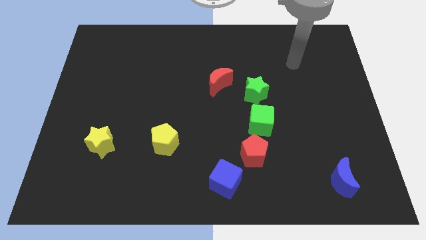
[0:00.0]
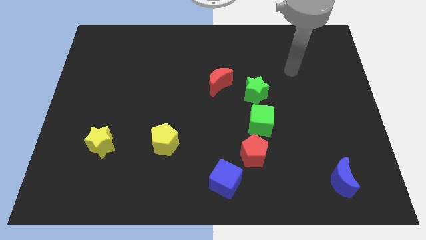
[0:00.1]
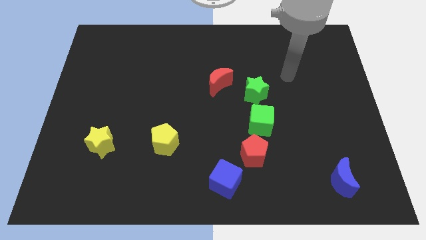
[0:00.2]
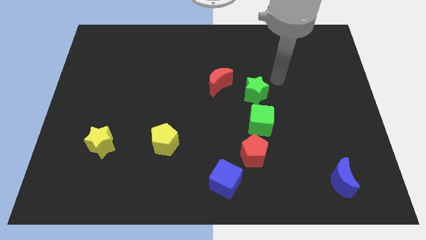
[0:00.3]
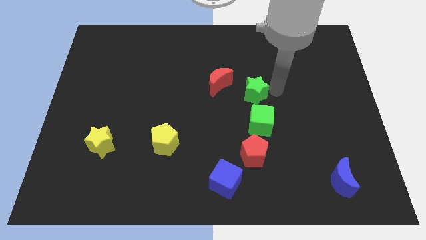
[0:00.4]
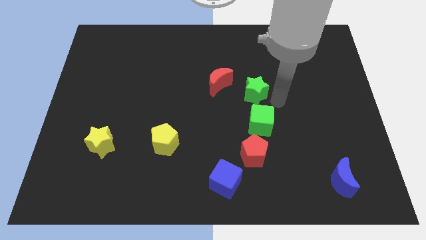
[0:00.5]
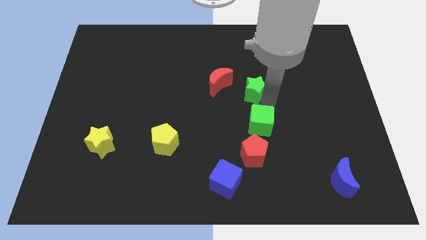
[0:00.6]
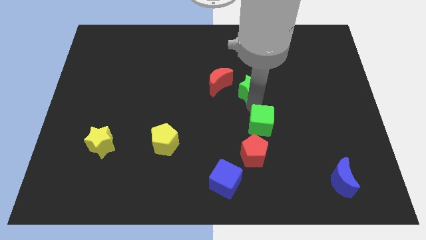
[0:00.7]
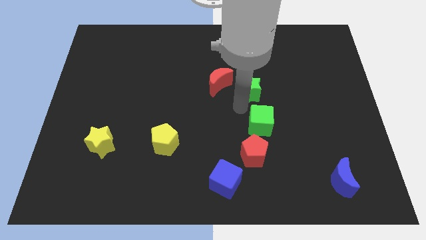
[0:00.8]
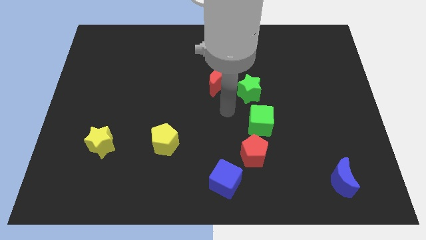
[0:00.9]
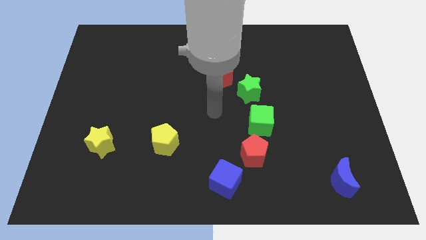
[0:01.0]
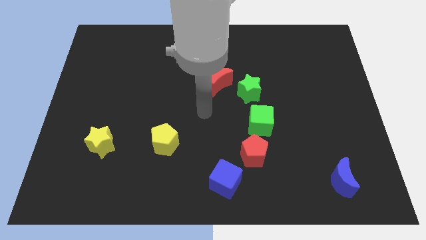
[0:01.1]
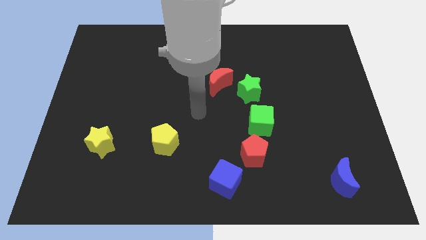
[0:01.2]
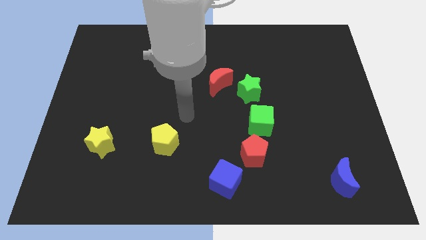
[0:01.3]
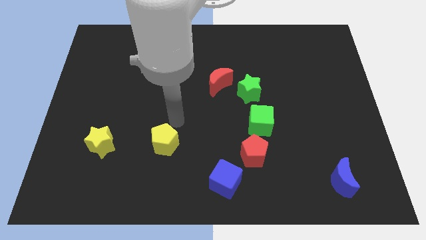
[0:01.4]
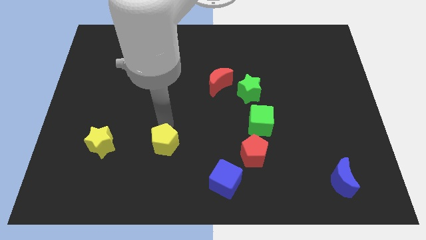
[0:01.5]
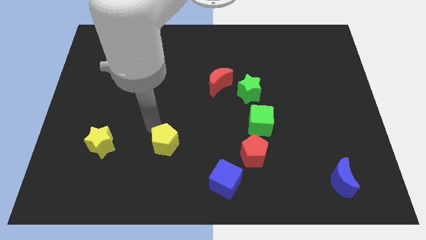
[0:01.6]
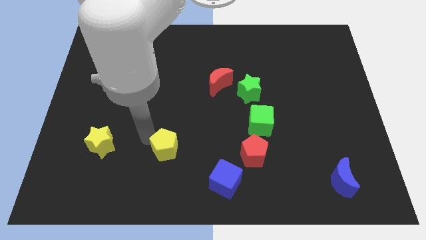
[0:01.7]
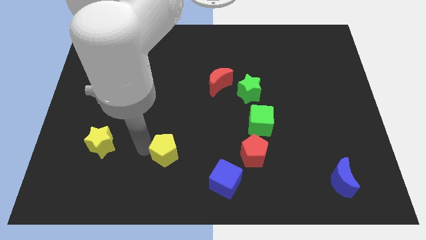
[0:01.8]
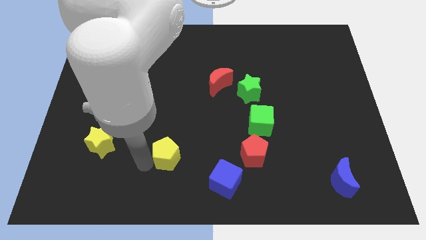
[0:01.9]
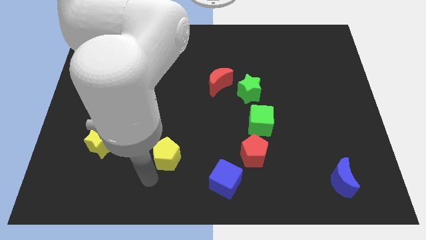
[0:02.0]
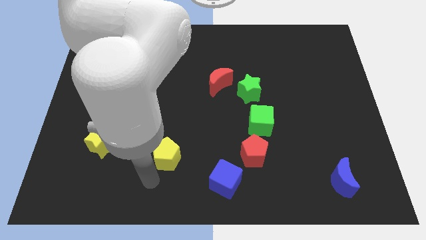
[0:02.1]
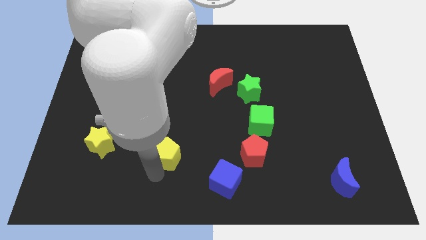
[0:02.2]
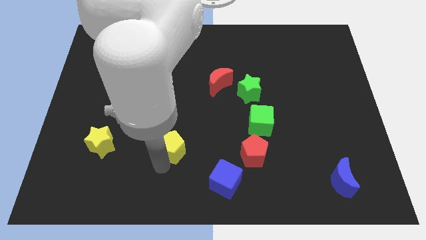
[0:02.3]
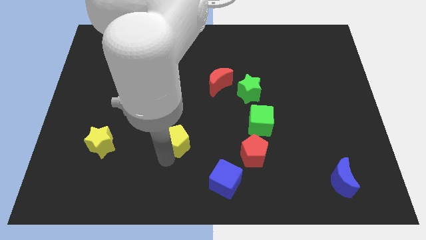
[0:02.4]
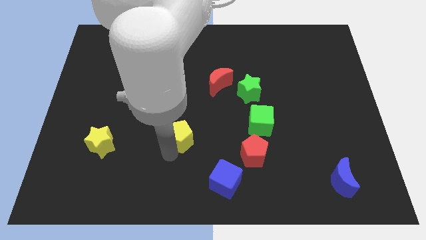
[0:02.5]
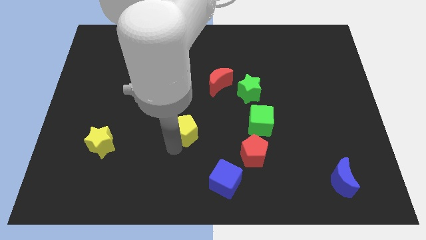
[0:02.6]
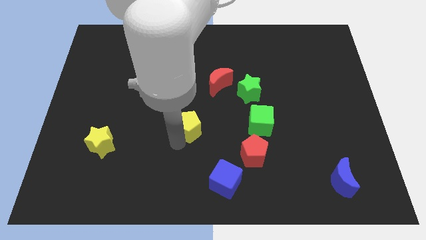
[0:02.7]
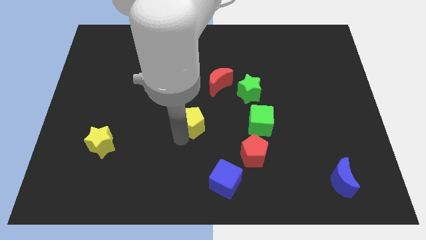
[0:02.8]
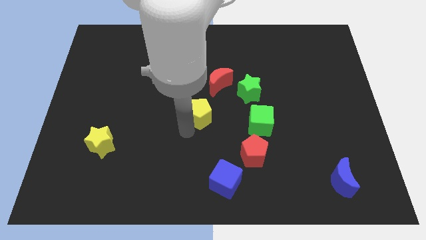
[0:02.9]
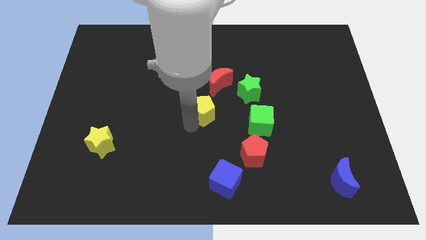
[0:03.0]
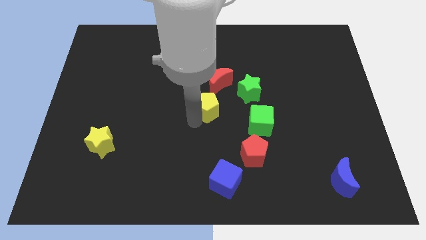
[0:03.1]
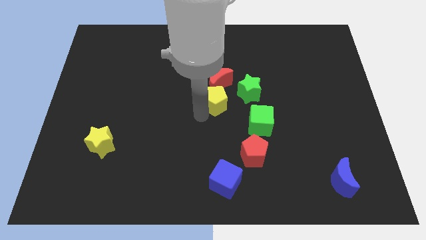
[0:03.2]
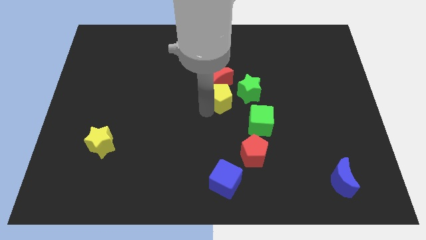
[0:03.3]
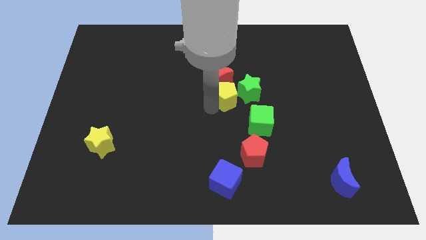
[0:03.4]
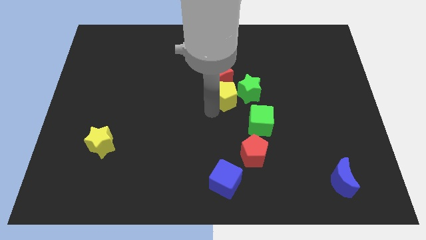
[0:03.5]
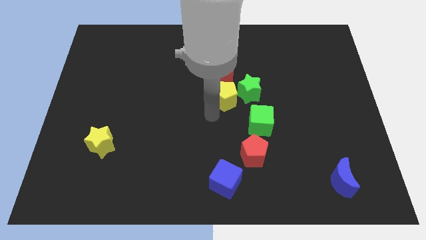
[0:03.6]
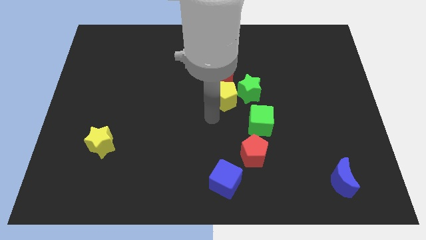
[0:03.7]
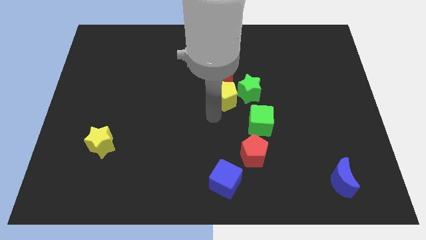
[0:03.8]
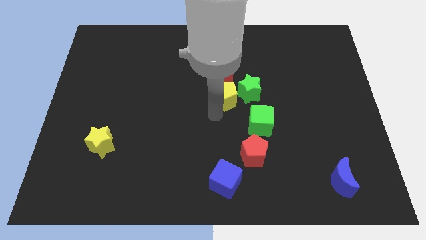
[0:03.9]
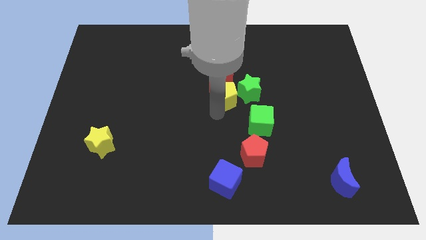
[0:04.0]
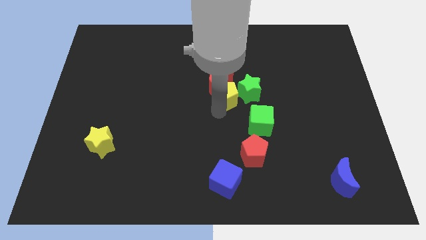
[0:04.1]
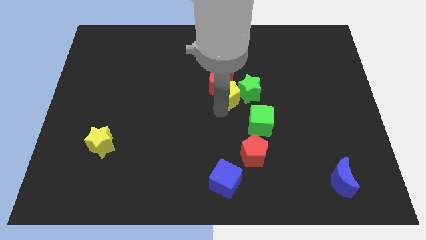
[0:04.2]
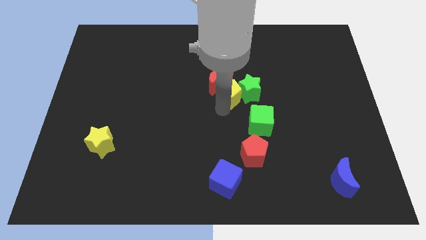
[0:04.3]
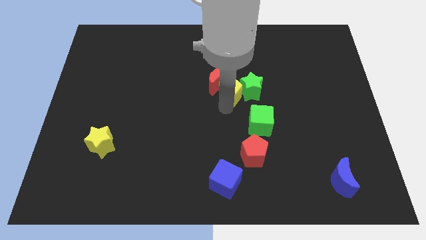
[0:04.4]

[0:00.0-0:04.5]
slide the yellow pentagon upwards and to the right

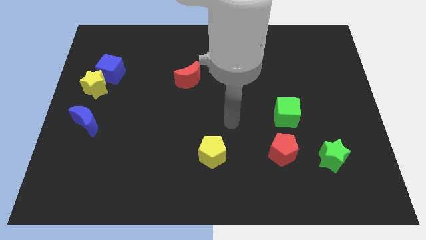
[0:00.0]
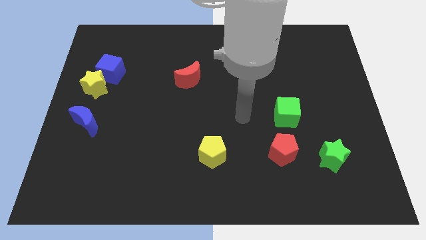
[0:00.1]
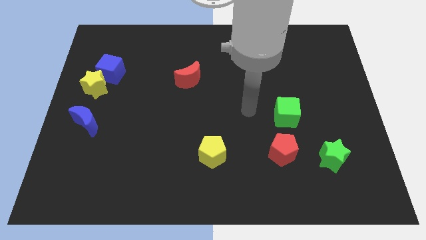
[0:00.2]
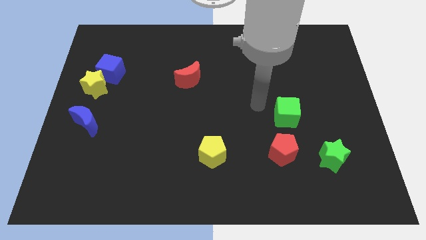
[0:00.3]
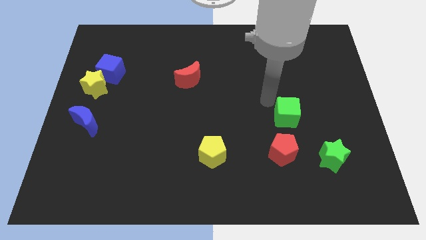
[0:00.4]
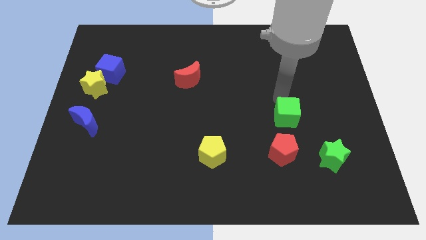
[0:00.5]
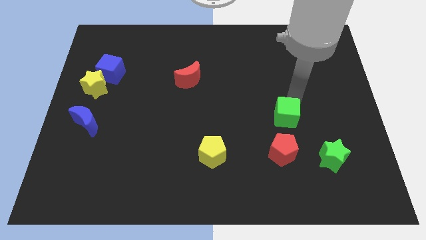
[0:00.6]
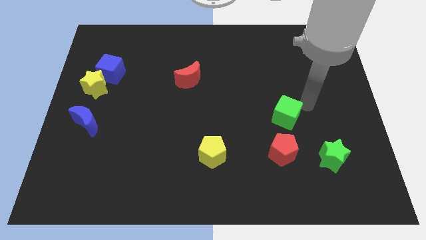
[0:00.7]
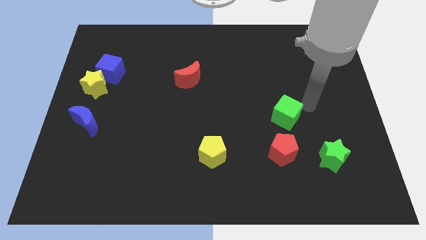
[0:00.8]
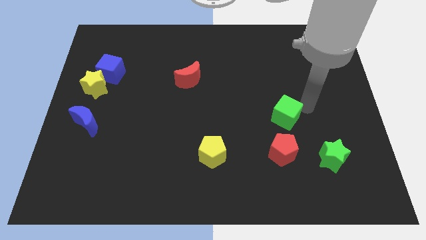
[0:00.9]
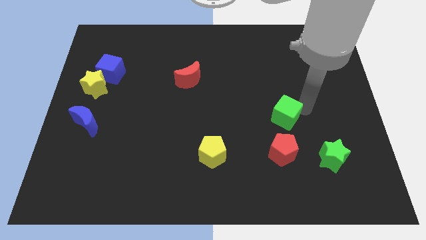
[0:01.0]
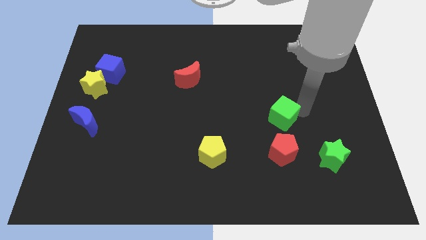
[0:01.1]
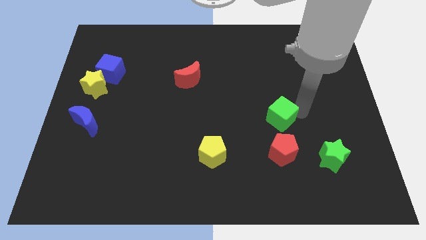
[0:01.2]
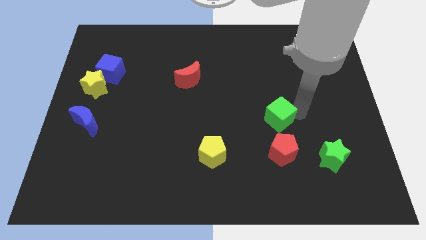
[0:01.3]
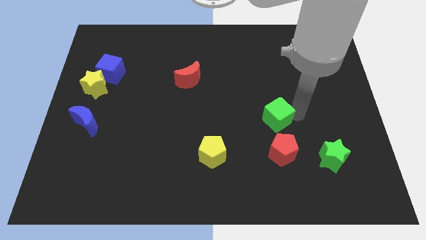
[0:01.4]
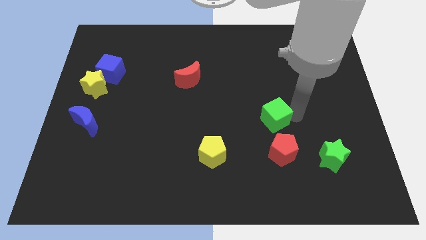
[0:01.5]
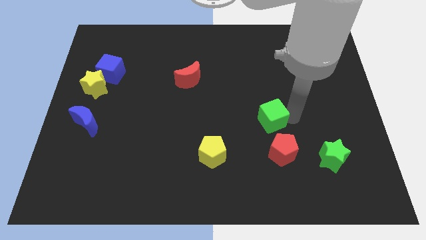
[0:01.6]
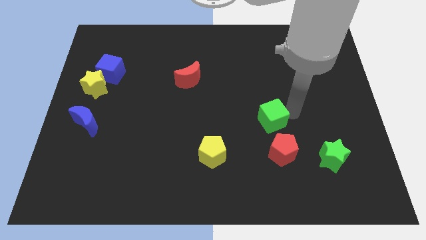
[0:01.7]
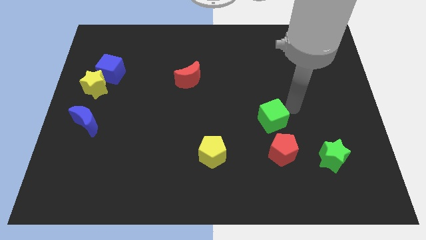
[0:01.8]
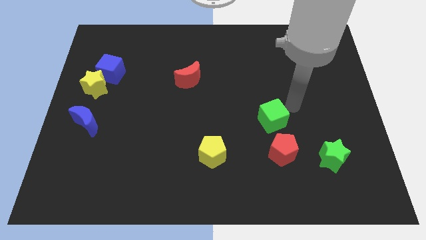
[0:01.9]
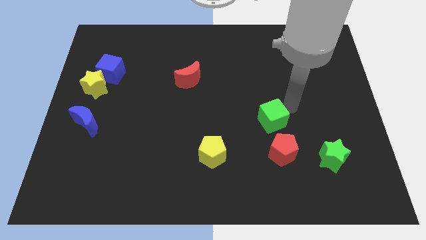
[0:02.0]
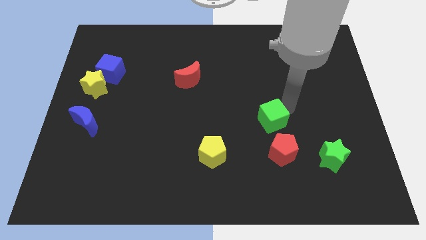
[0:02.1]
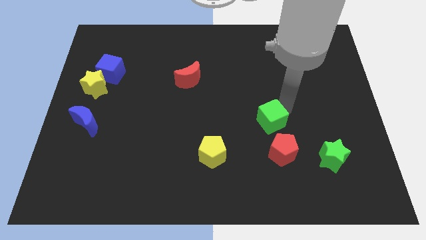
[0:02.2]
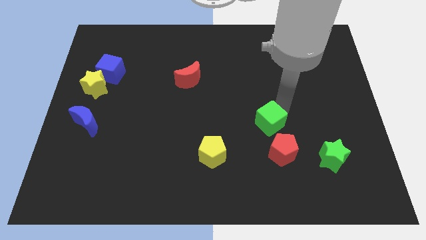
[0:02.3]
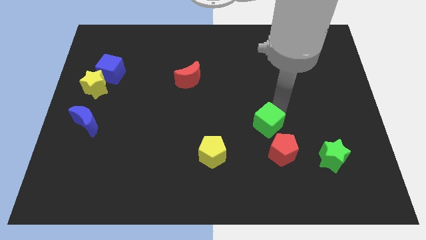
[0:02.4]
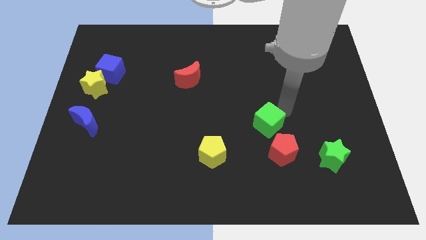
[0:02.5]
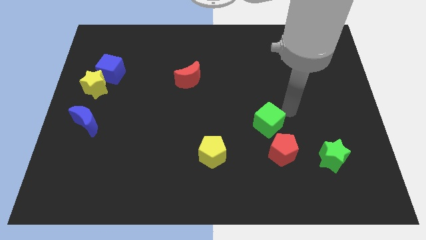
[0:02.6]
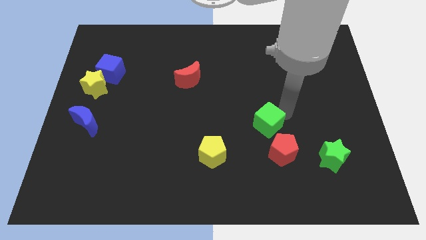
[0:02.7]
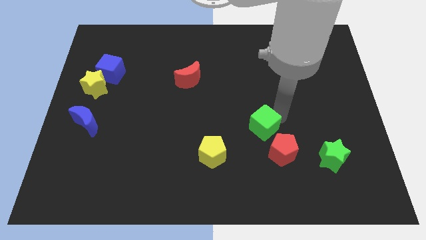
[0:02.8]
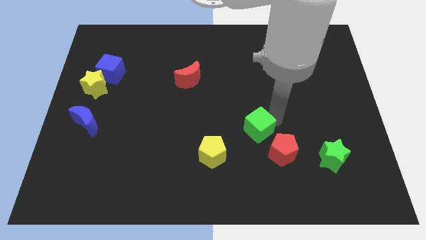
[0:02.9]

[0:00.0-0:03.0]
move the green cube down and left a little bit

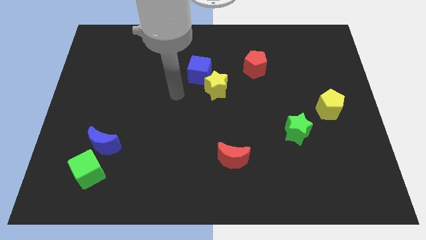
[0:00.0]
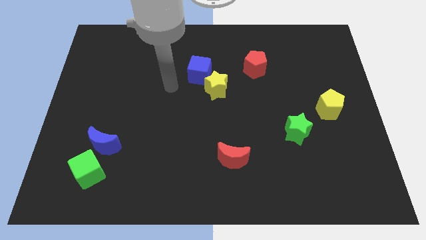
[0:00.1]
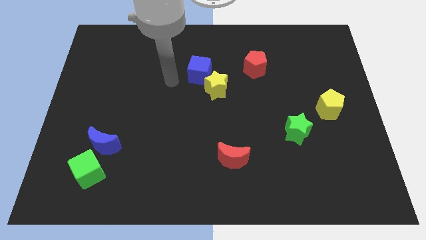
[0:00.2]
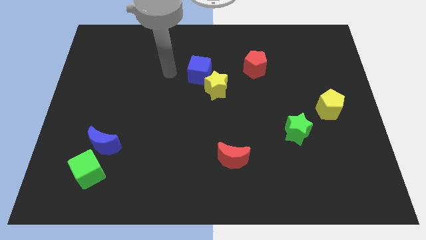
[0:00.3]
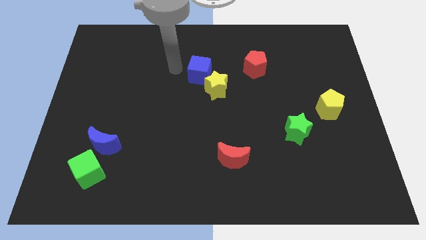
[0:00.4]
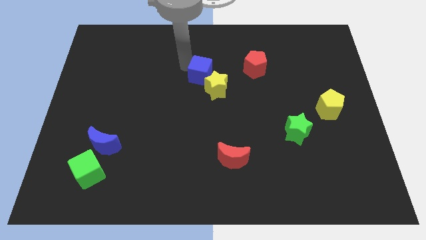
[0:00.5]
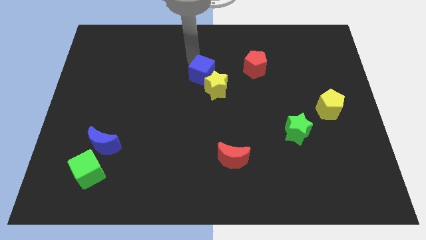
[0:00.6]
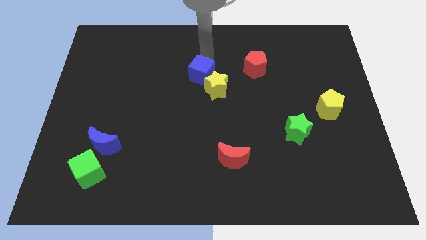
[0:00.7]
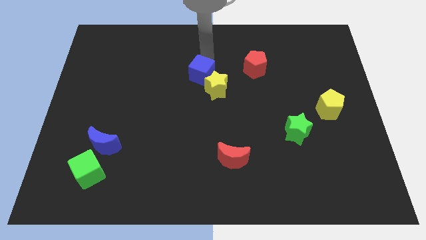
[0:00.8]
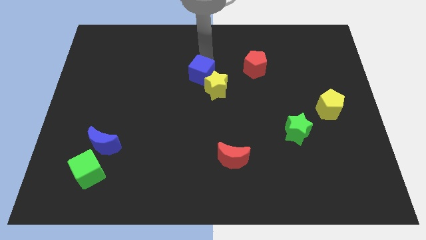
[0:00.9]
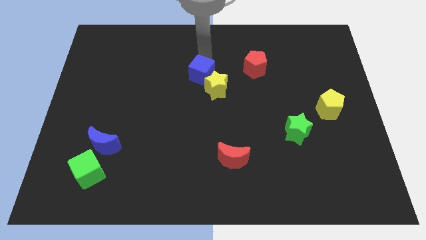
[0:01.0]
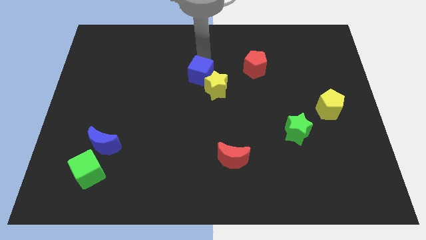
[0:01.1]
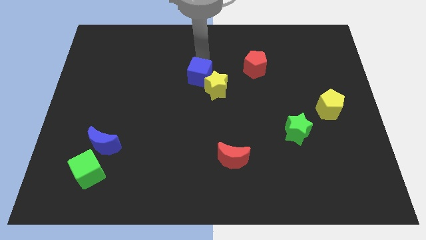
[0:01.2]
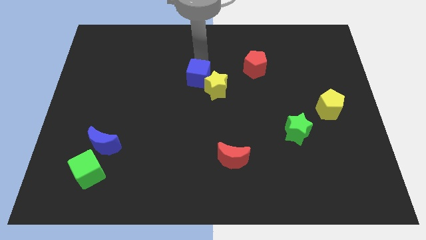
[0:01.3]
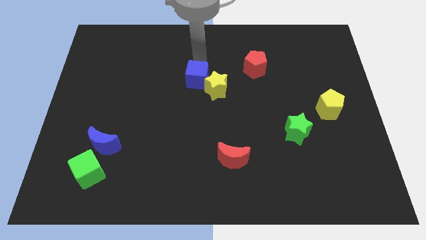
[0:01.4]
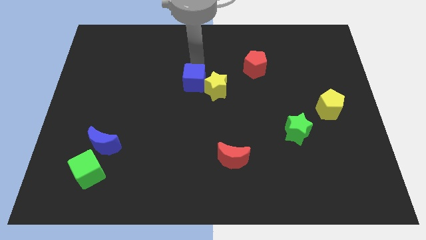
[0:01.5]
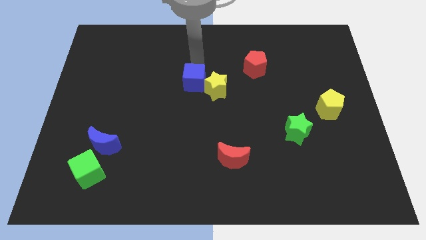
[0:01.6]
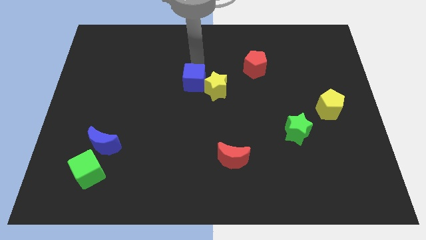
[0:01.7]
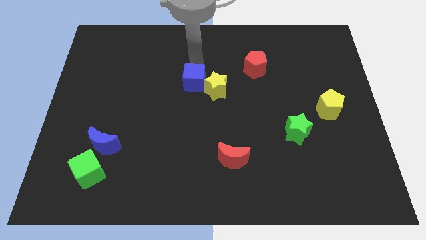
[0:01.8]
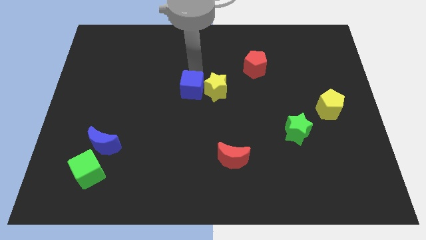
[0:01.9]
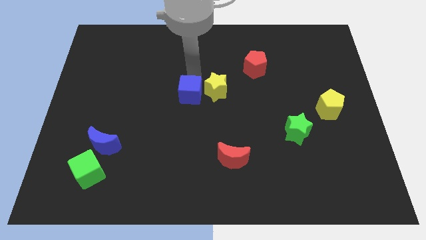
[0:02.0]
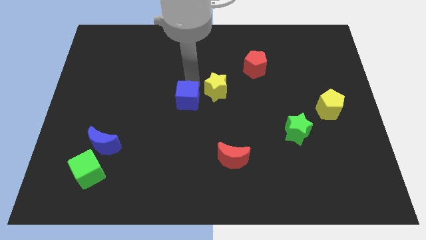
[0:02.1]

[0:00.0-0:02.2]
slightly slide the blue cube downwards
